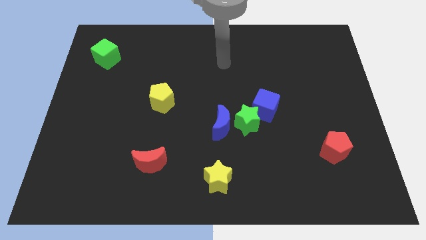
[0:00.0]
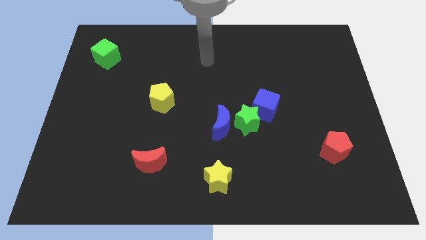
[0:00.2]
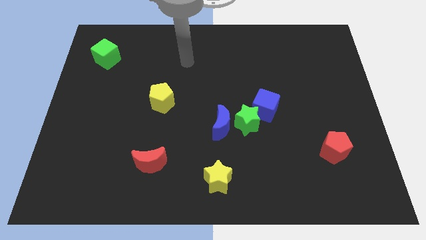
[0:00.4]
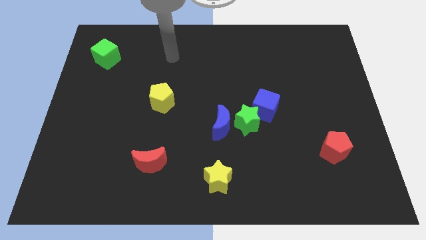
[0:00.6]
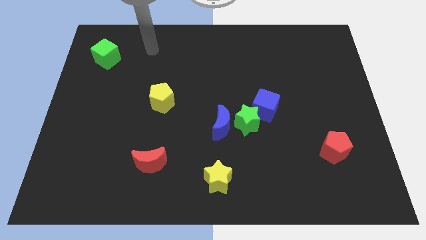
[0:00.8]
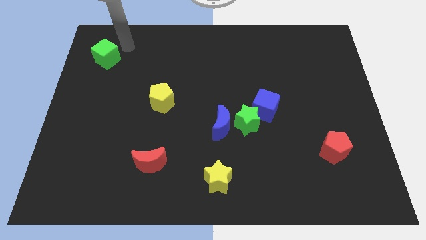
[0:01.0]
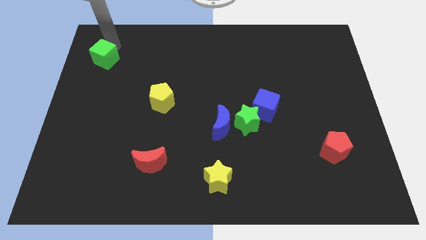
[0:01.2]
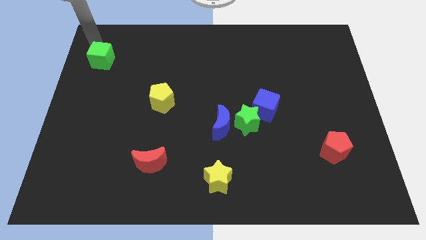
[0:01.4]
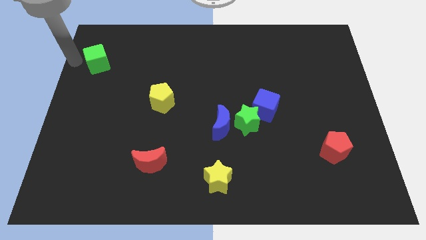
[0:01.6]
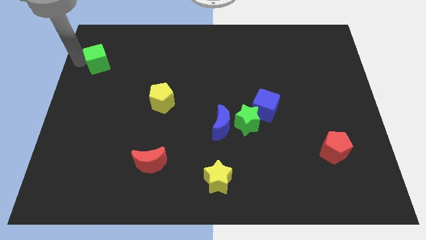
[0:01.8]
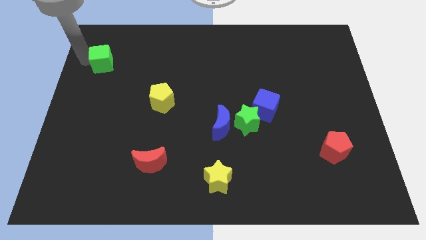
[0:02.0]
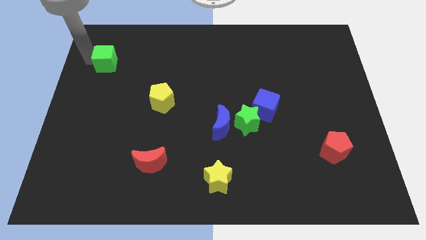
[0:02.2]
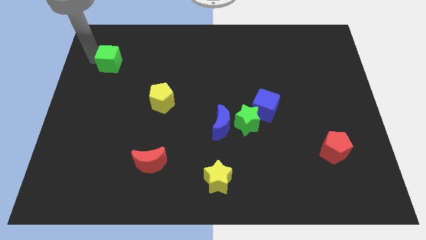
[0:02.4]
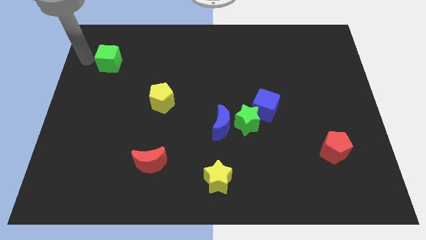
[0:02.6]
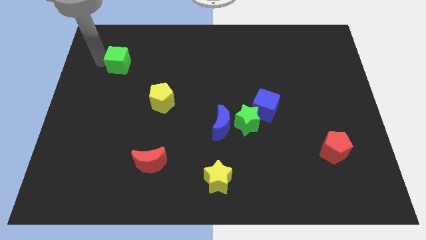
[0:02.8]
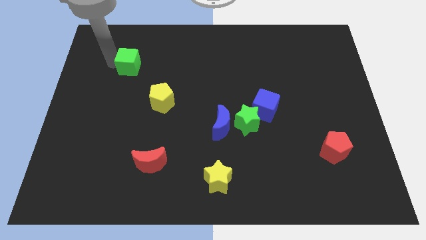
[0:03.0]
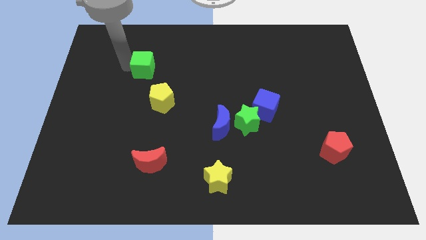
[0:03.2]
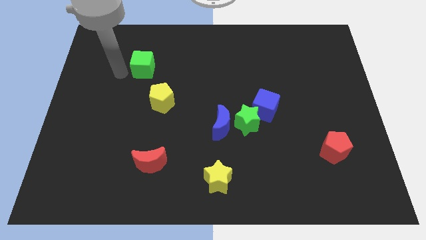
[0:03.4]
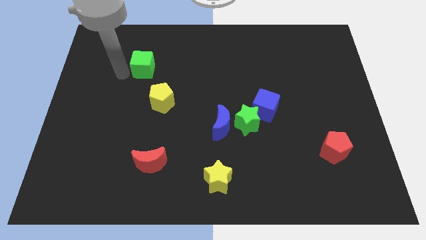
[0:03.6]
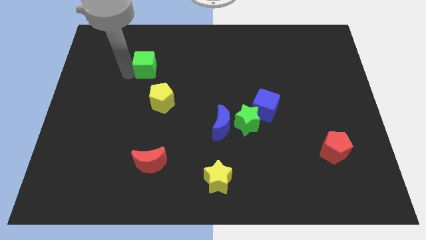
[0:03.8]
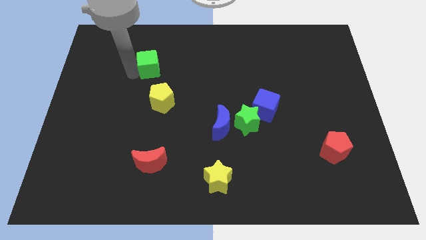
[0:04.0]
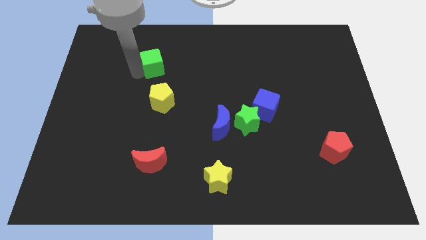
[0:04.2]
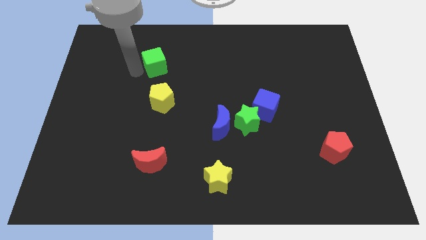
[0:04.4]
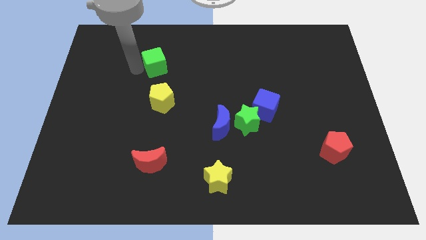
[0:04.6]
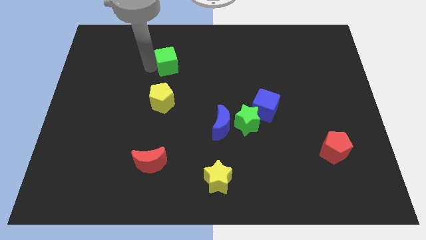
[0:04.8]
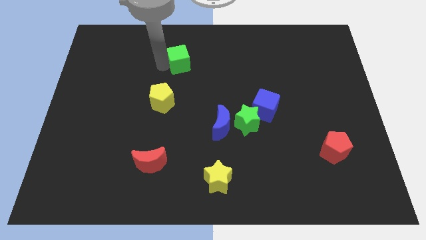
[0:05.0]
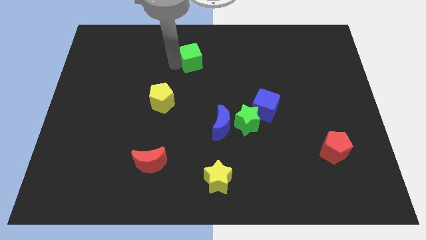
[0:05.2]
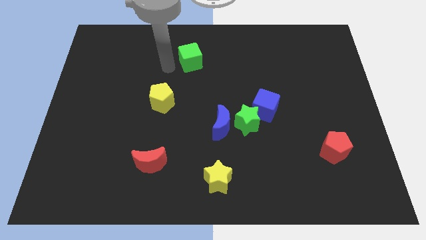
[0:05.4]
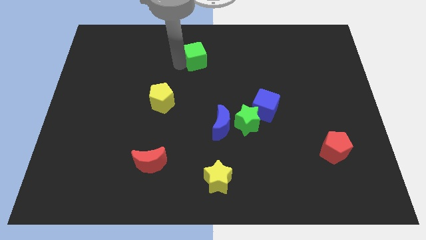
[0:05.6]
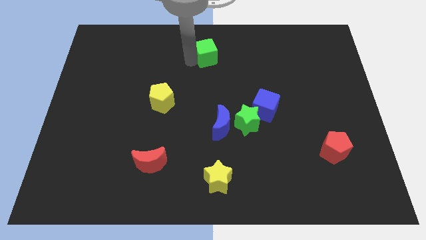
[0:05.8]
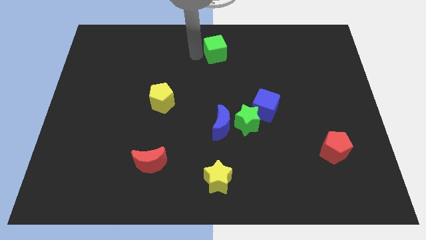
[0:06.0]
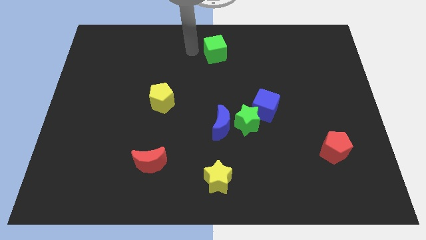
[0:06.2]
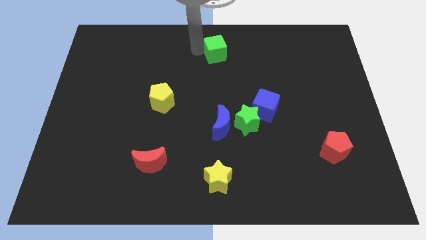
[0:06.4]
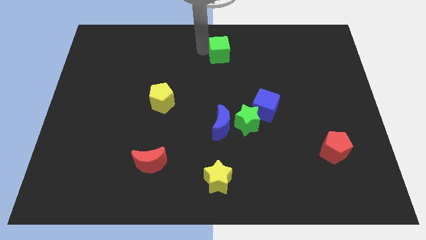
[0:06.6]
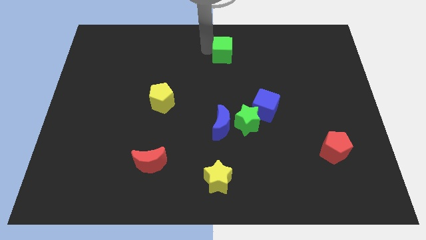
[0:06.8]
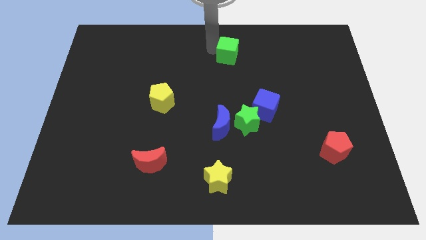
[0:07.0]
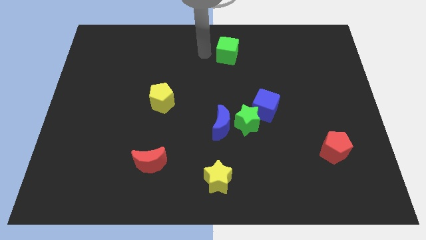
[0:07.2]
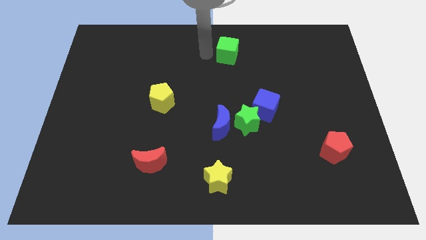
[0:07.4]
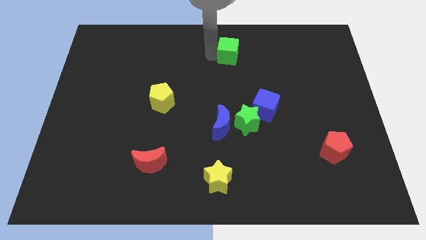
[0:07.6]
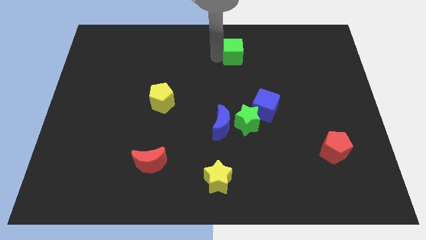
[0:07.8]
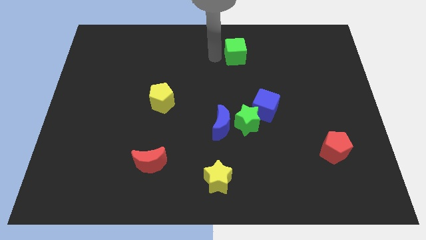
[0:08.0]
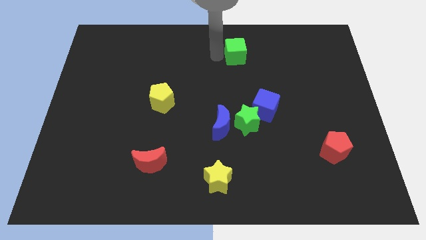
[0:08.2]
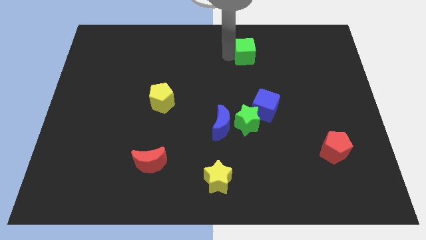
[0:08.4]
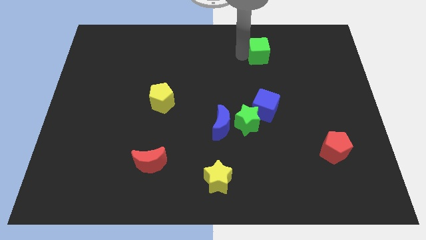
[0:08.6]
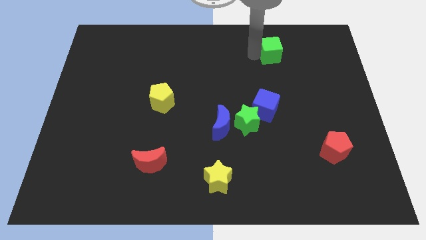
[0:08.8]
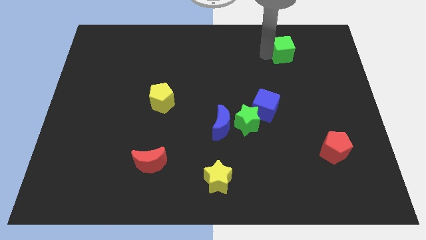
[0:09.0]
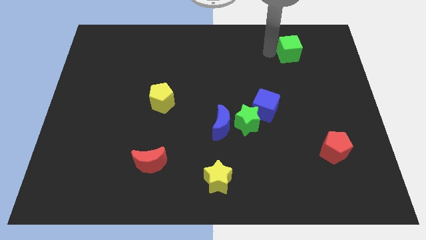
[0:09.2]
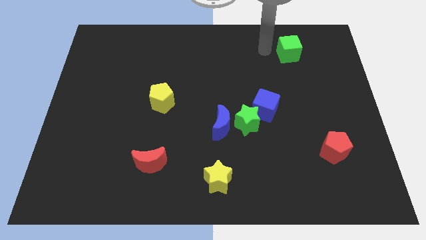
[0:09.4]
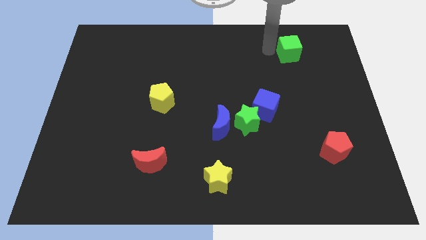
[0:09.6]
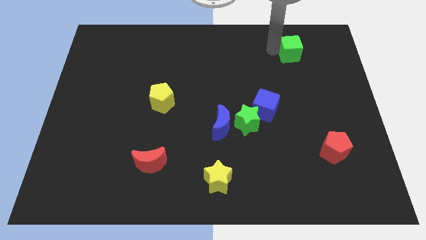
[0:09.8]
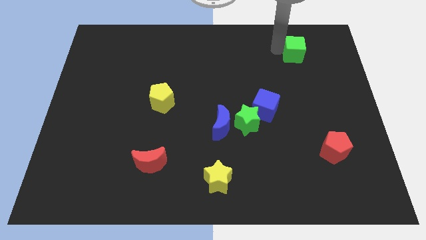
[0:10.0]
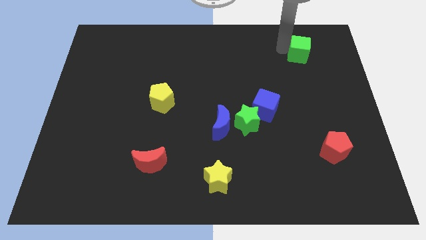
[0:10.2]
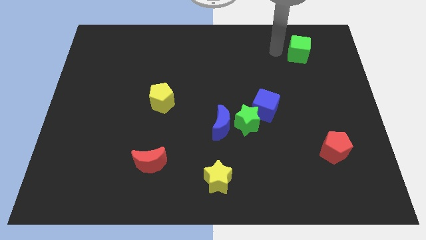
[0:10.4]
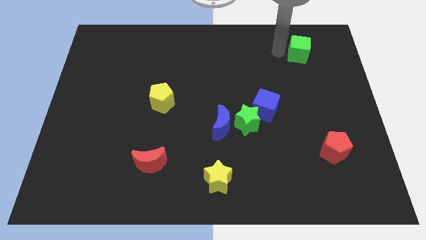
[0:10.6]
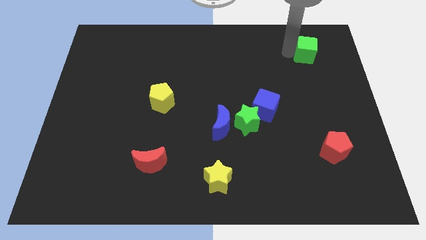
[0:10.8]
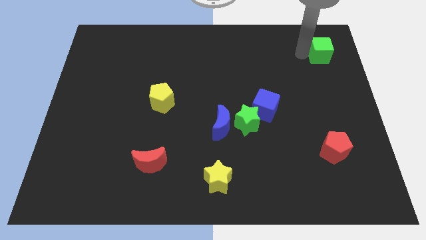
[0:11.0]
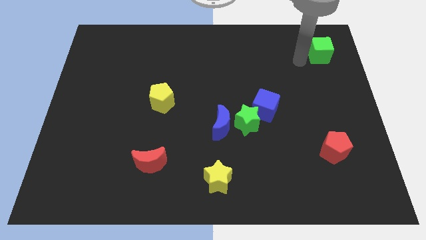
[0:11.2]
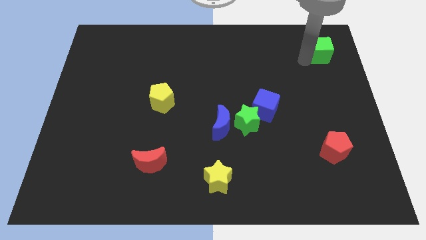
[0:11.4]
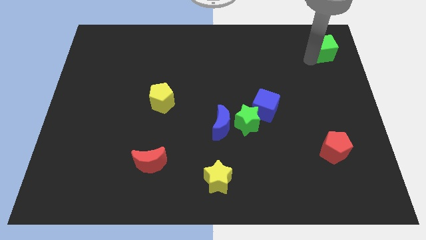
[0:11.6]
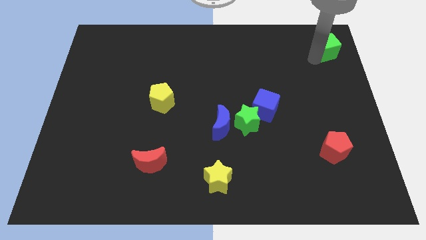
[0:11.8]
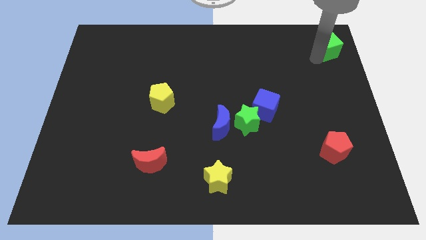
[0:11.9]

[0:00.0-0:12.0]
move the green cube to the top right corner

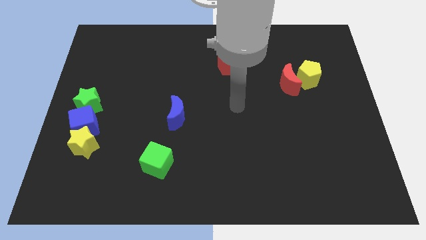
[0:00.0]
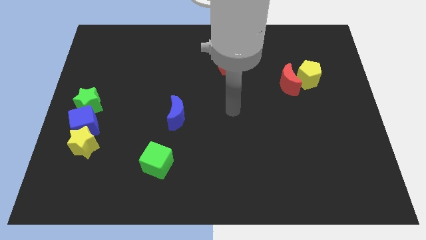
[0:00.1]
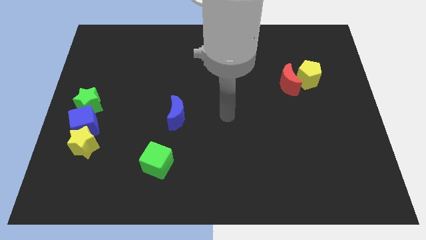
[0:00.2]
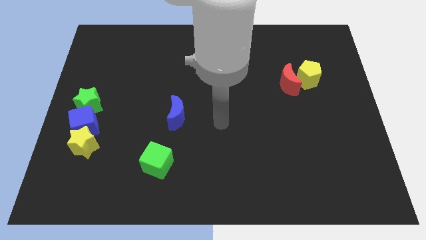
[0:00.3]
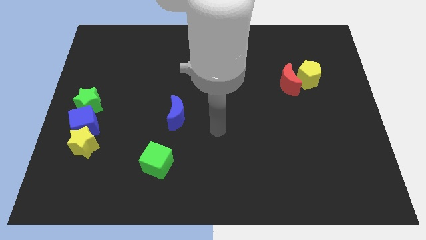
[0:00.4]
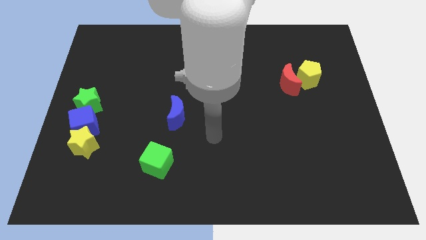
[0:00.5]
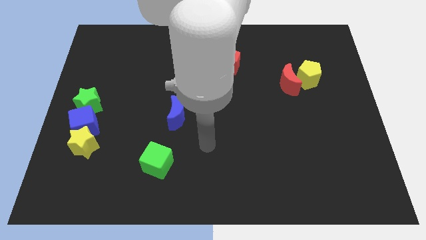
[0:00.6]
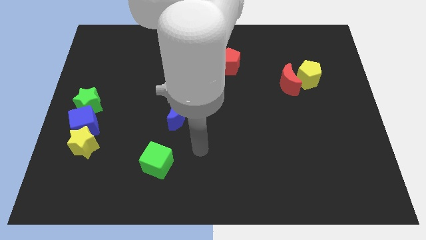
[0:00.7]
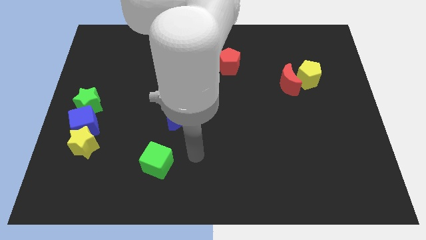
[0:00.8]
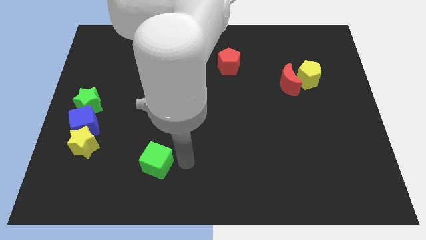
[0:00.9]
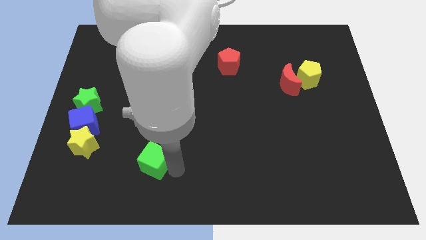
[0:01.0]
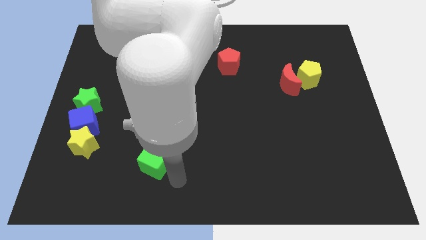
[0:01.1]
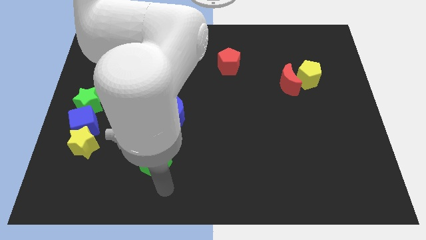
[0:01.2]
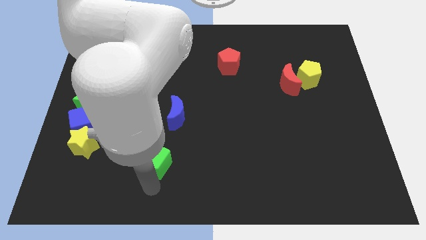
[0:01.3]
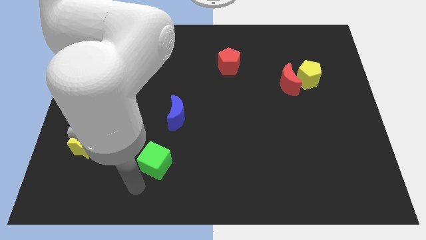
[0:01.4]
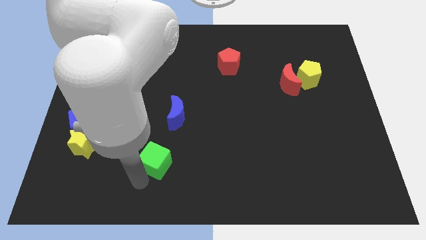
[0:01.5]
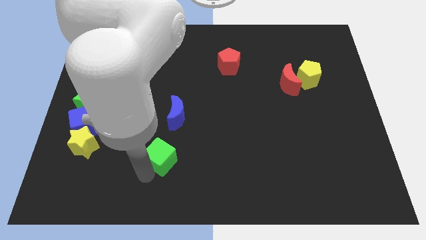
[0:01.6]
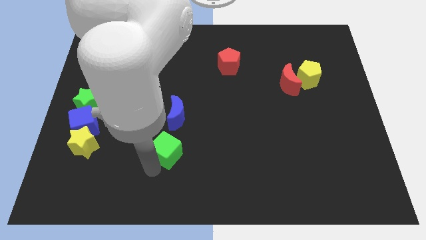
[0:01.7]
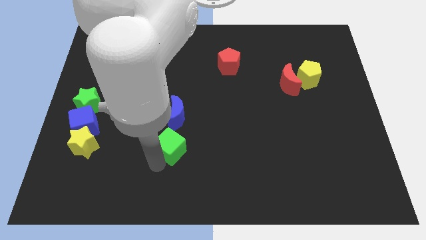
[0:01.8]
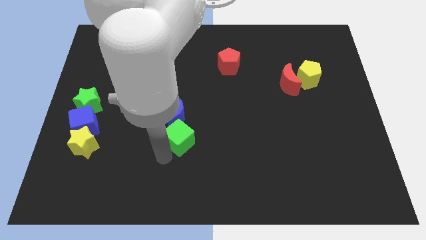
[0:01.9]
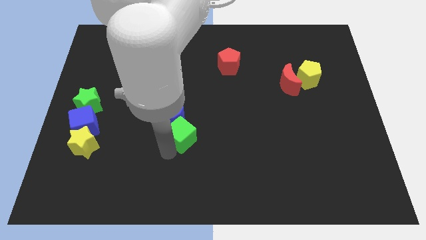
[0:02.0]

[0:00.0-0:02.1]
put the green cube to the center of the board
